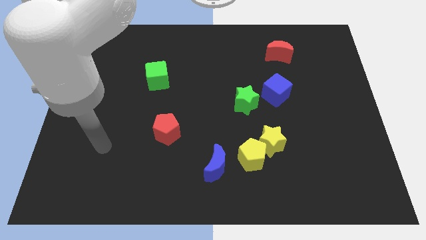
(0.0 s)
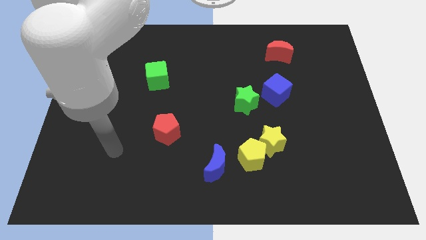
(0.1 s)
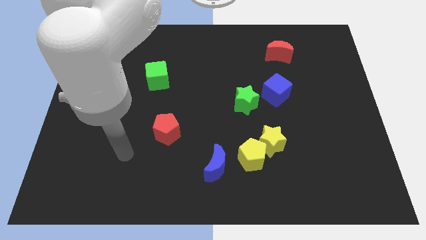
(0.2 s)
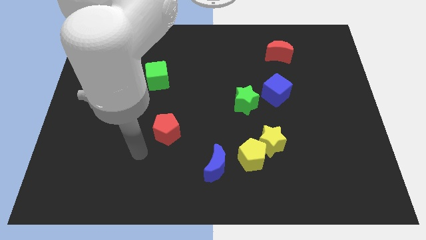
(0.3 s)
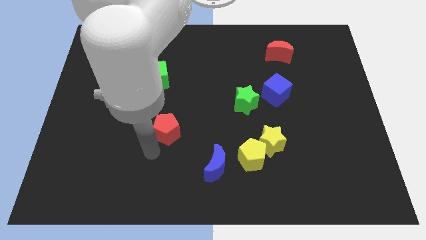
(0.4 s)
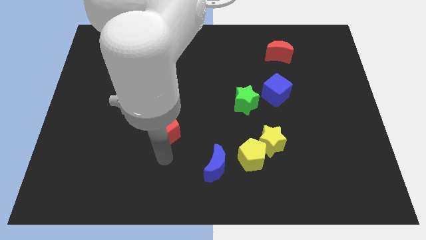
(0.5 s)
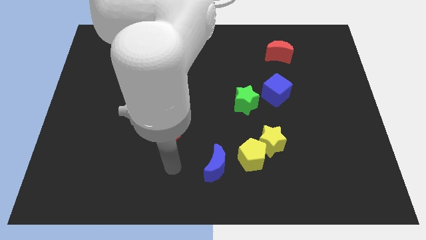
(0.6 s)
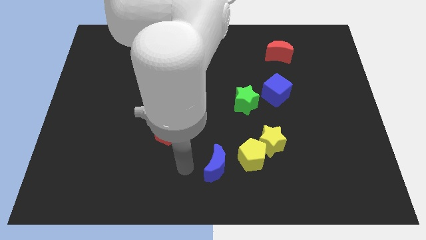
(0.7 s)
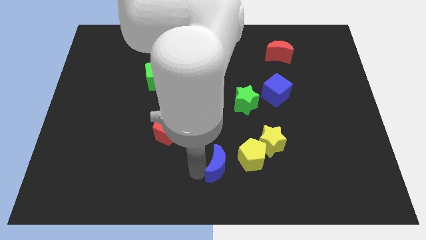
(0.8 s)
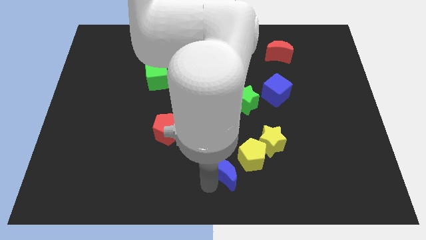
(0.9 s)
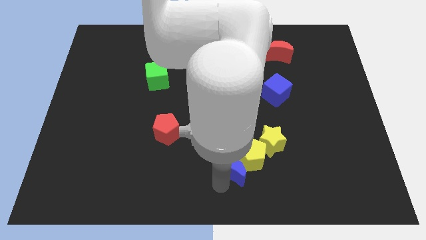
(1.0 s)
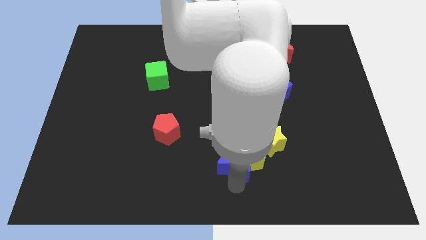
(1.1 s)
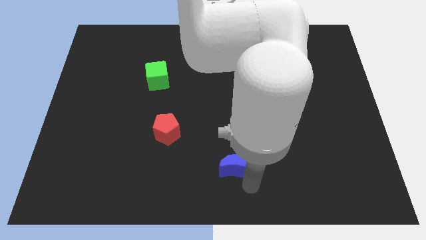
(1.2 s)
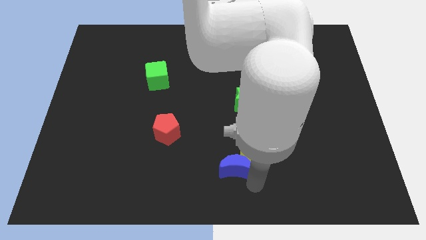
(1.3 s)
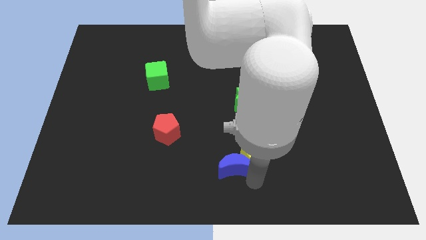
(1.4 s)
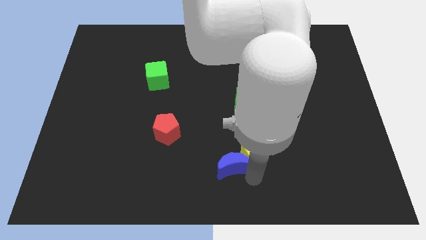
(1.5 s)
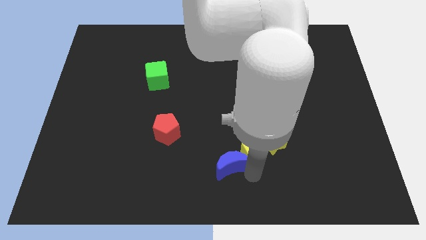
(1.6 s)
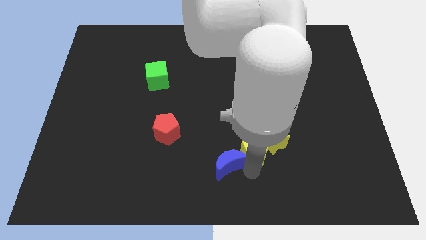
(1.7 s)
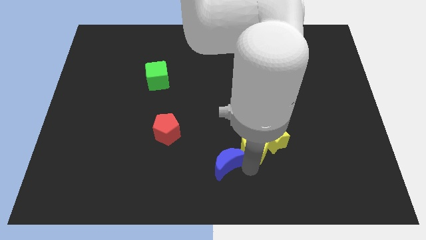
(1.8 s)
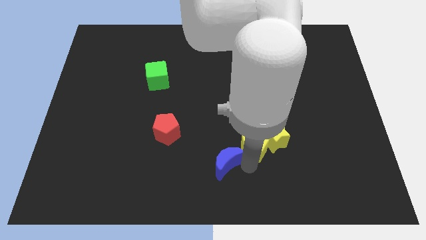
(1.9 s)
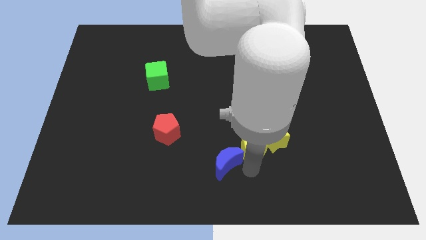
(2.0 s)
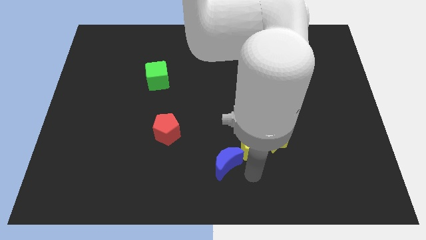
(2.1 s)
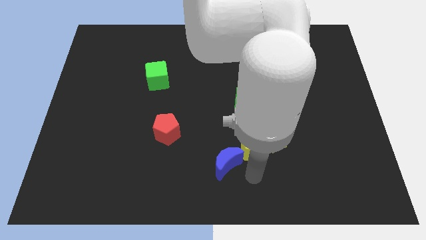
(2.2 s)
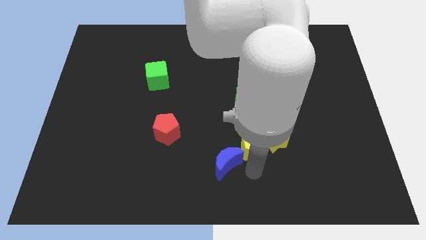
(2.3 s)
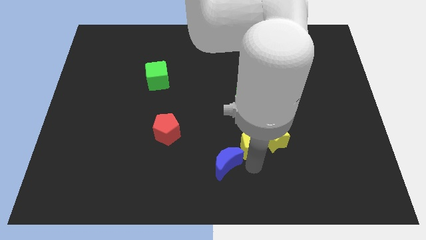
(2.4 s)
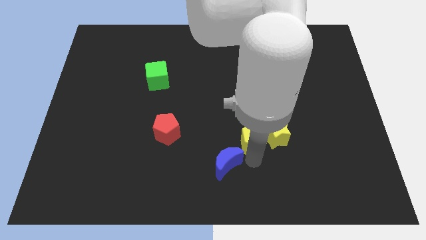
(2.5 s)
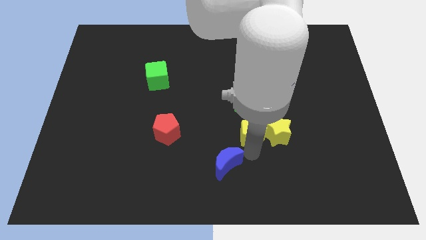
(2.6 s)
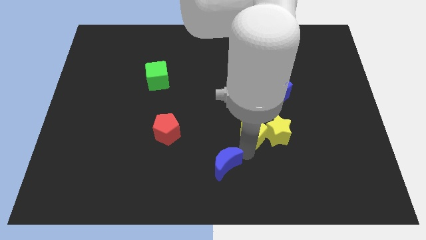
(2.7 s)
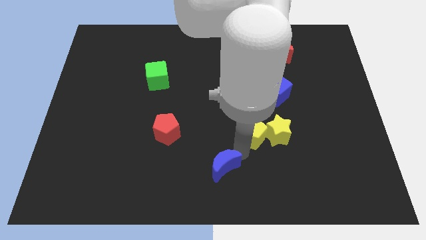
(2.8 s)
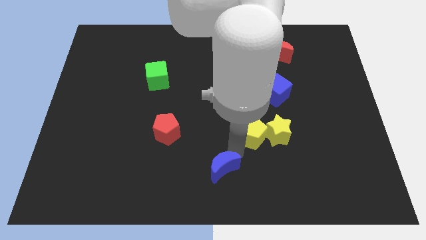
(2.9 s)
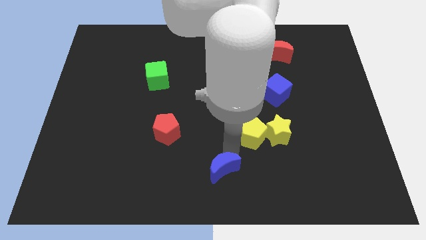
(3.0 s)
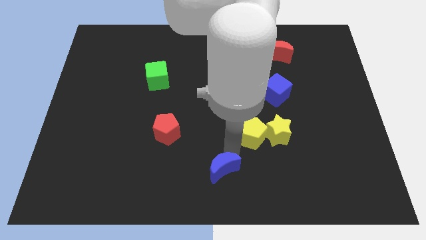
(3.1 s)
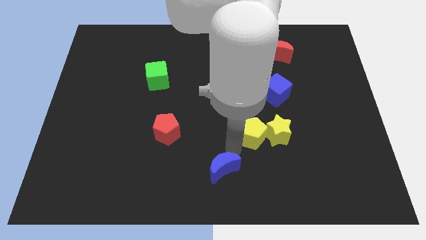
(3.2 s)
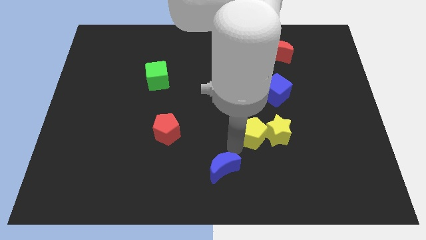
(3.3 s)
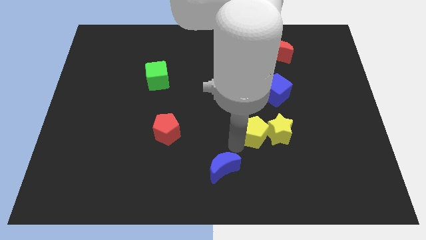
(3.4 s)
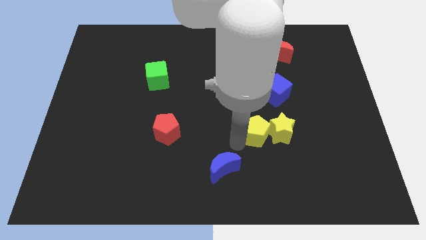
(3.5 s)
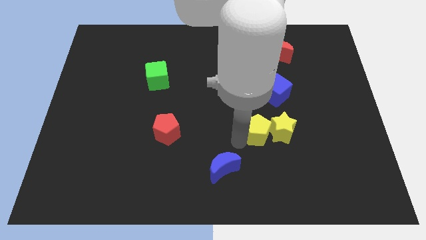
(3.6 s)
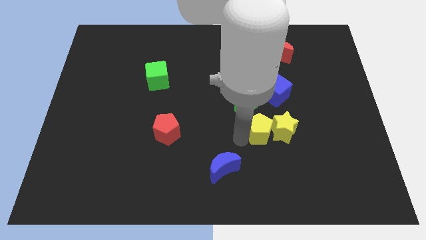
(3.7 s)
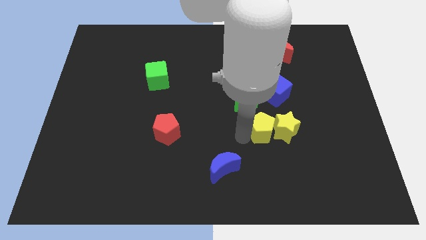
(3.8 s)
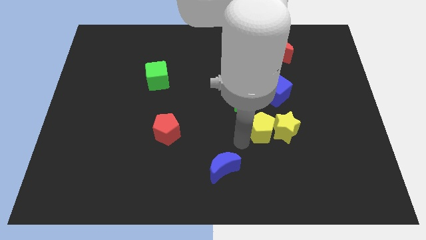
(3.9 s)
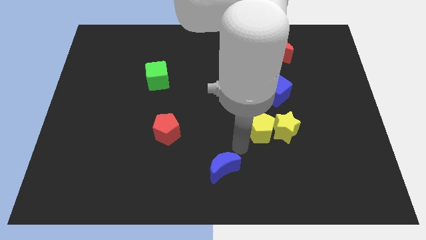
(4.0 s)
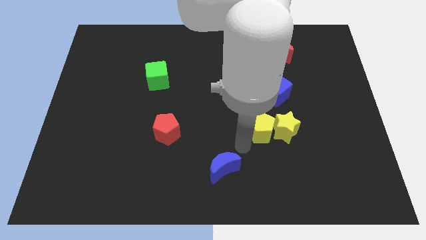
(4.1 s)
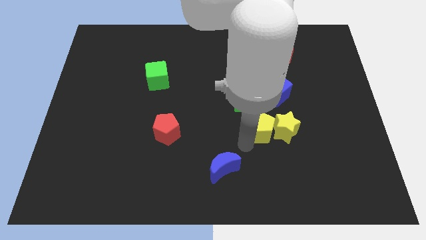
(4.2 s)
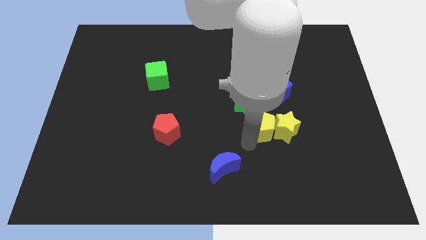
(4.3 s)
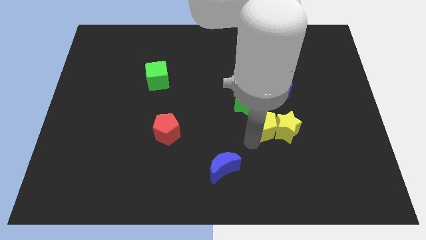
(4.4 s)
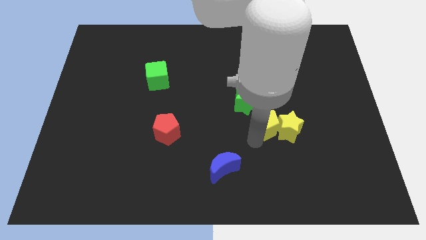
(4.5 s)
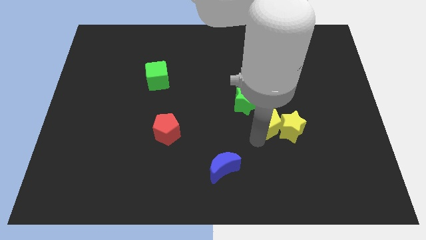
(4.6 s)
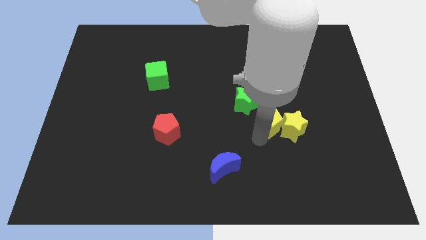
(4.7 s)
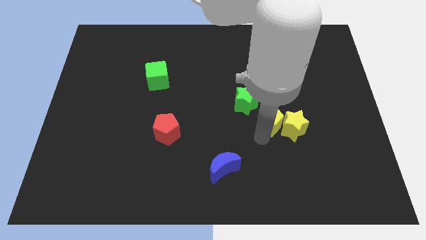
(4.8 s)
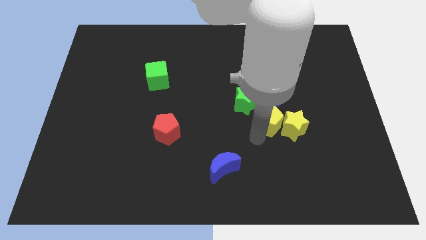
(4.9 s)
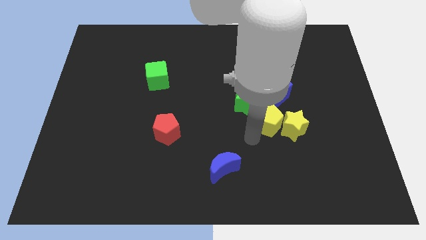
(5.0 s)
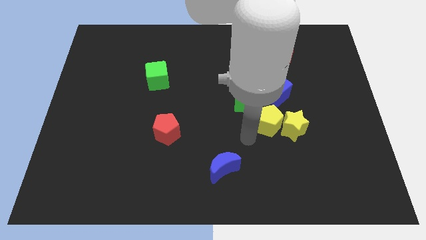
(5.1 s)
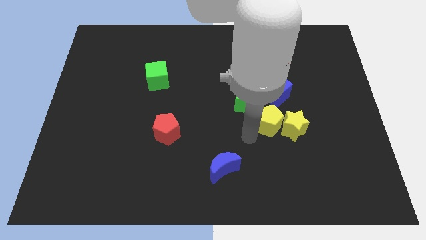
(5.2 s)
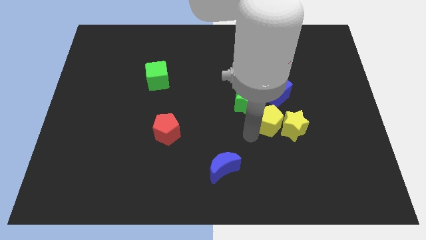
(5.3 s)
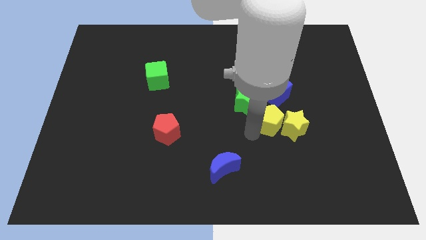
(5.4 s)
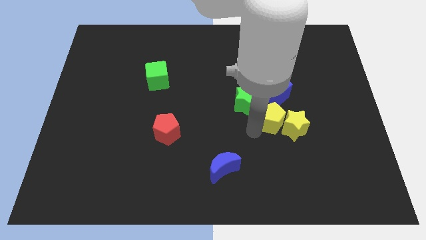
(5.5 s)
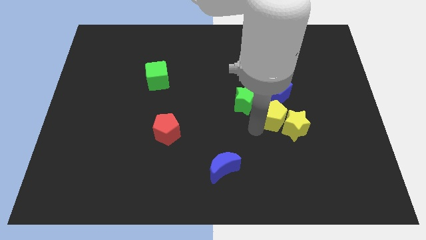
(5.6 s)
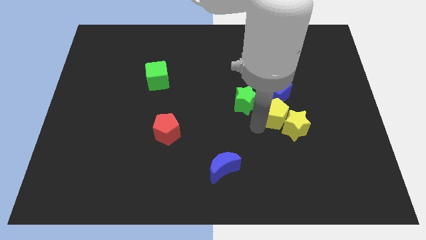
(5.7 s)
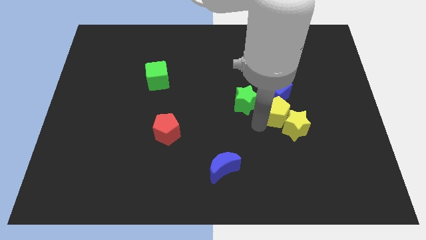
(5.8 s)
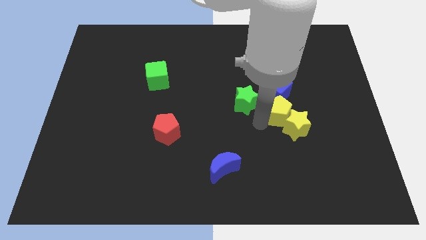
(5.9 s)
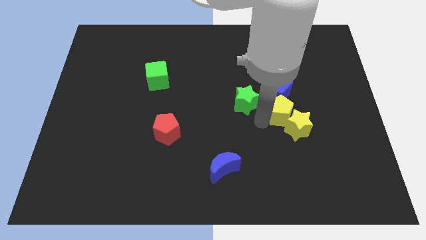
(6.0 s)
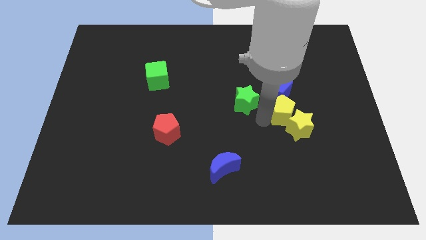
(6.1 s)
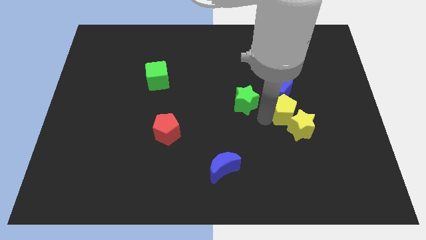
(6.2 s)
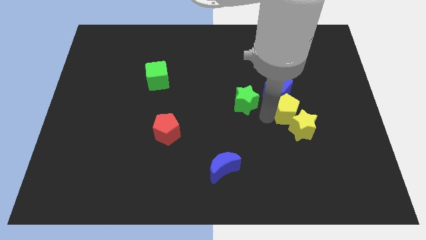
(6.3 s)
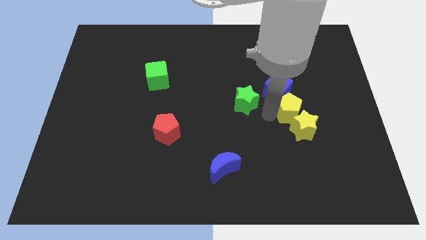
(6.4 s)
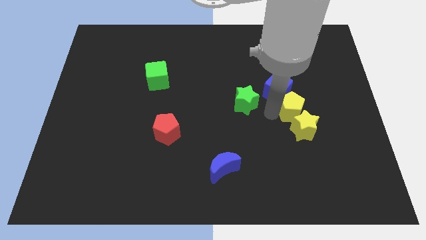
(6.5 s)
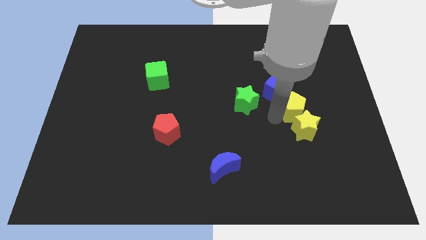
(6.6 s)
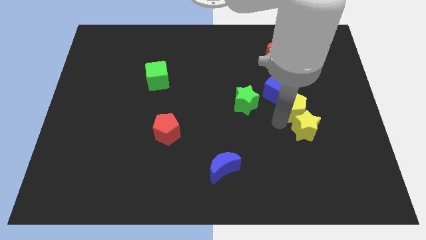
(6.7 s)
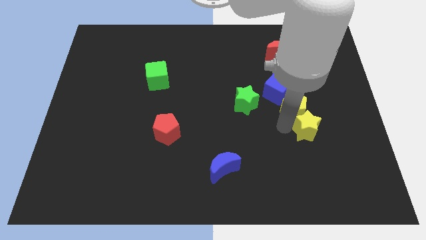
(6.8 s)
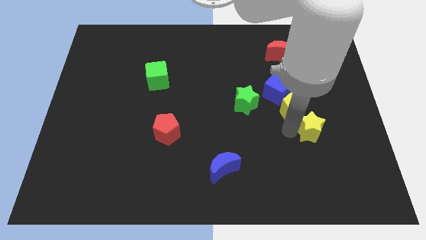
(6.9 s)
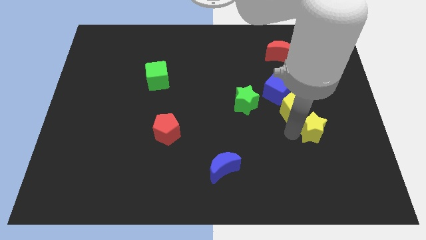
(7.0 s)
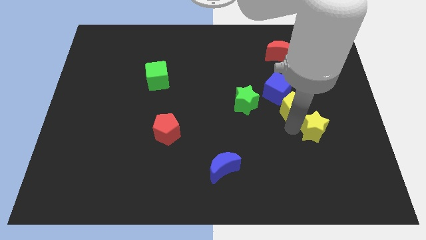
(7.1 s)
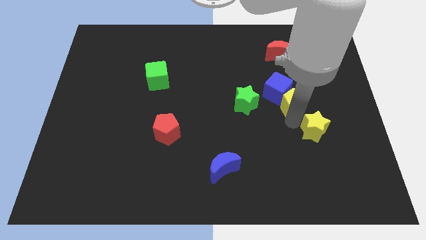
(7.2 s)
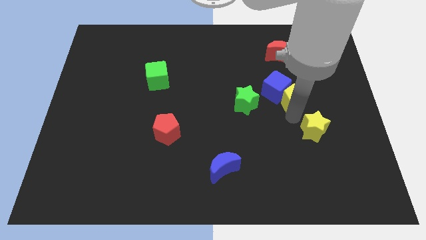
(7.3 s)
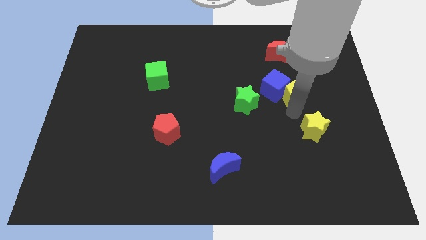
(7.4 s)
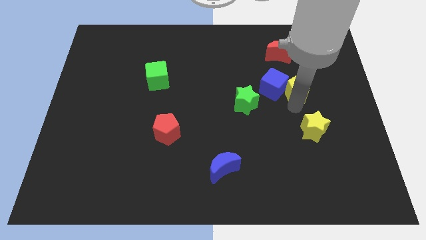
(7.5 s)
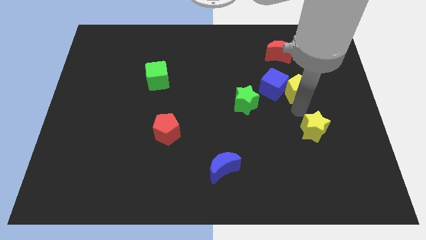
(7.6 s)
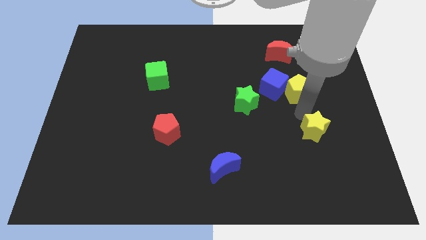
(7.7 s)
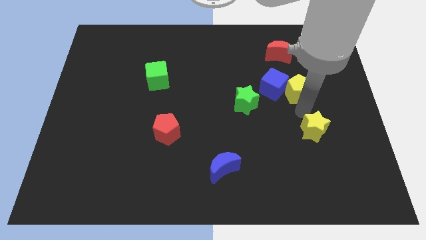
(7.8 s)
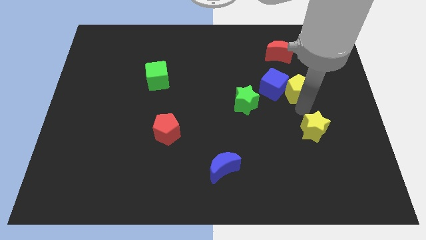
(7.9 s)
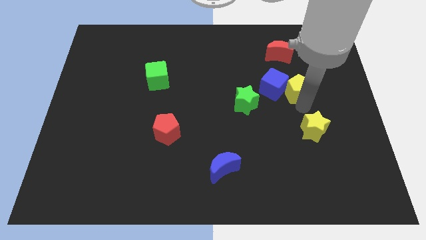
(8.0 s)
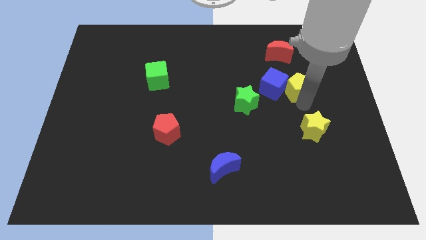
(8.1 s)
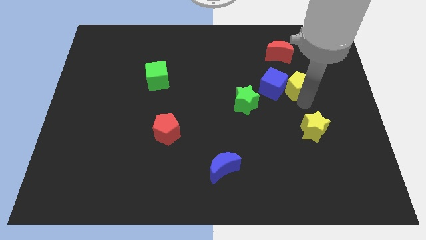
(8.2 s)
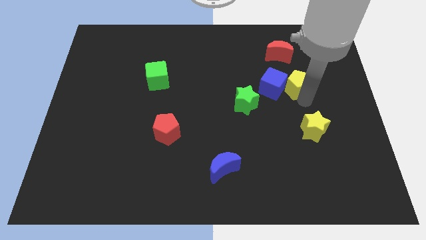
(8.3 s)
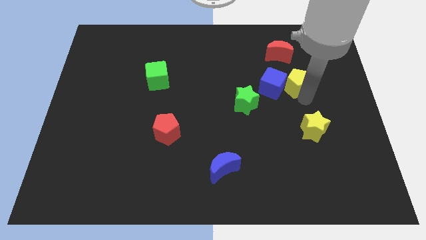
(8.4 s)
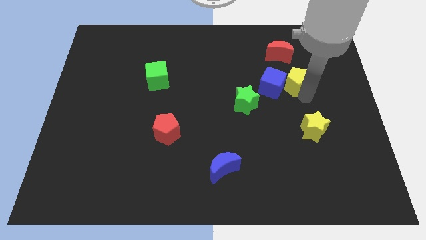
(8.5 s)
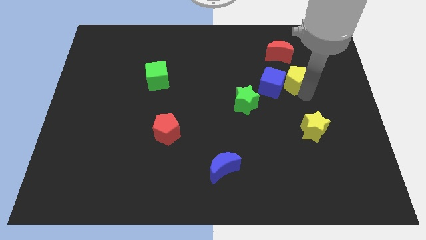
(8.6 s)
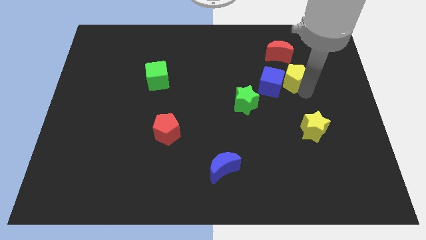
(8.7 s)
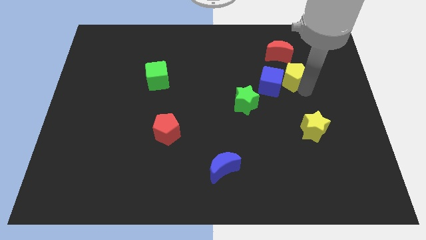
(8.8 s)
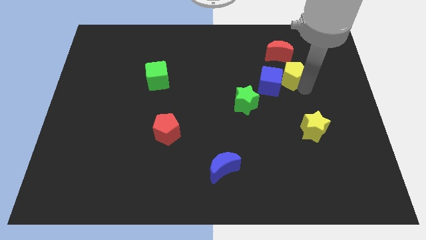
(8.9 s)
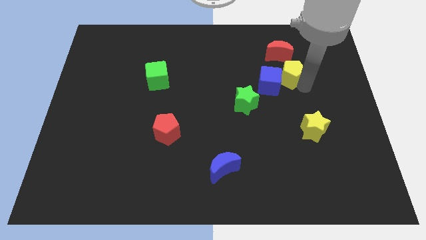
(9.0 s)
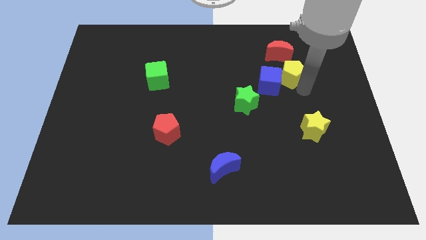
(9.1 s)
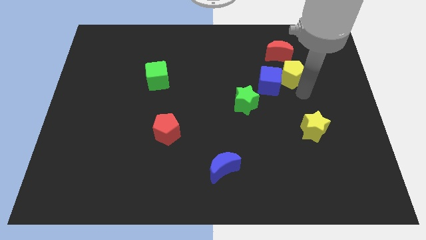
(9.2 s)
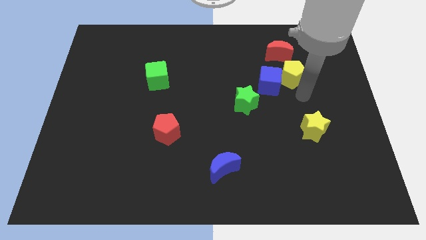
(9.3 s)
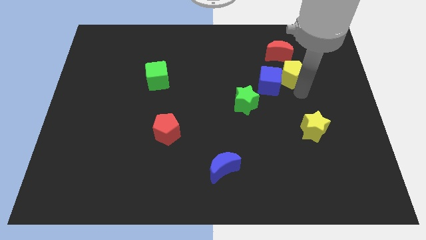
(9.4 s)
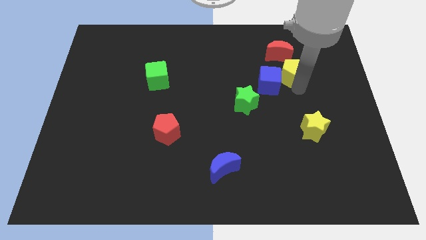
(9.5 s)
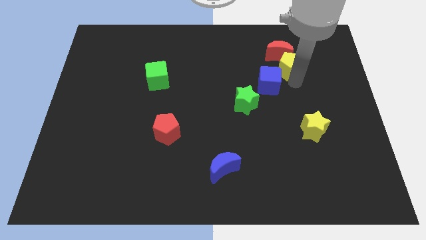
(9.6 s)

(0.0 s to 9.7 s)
move the yellow pentagon close to the red moon
